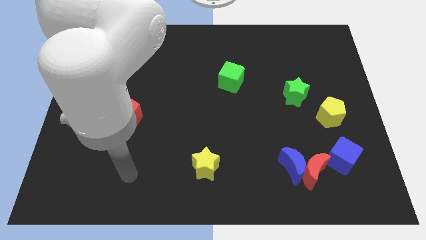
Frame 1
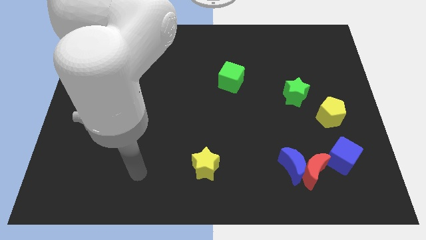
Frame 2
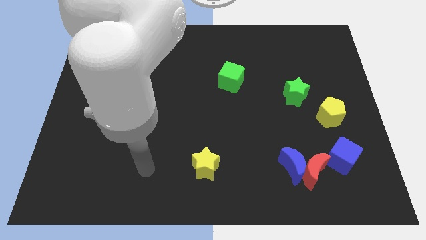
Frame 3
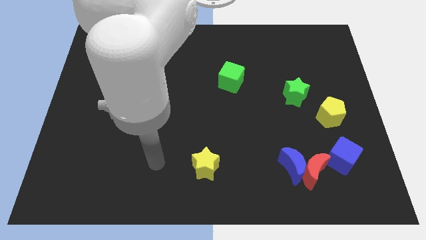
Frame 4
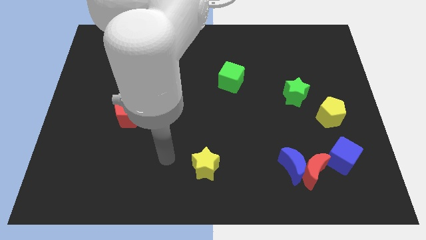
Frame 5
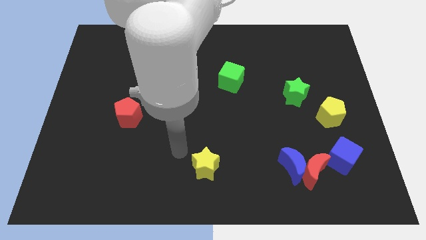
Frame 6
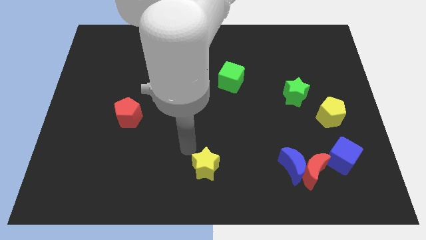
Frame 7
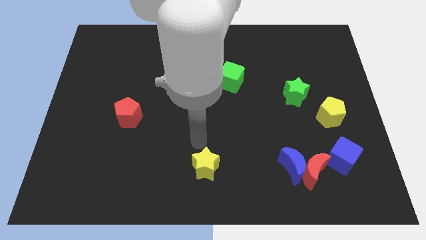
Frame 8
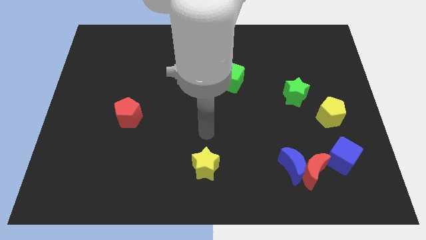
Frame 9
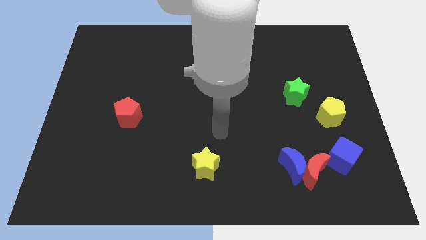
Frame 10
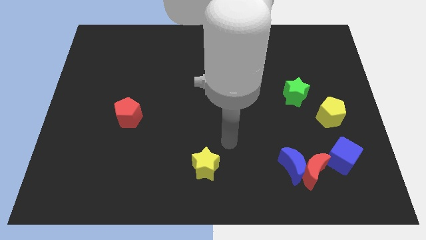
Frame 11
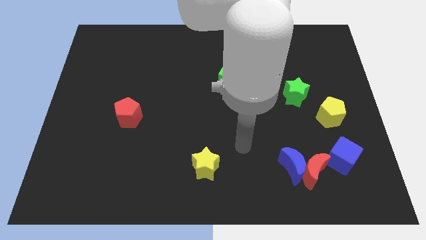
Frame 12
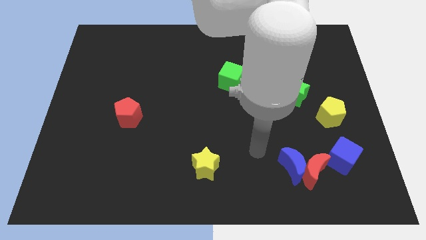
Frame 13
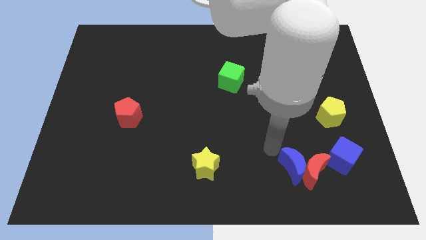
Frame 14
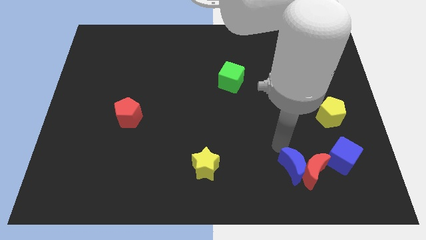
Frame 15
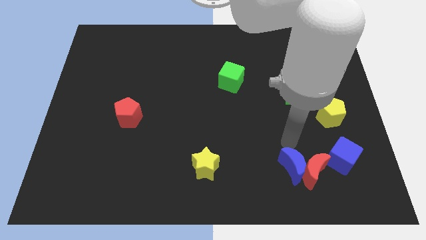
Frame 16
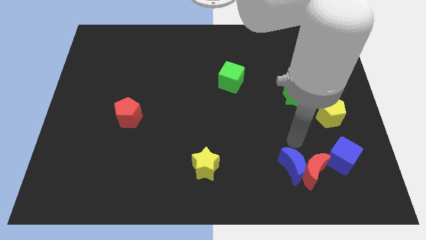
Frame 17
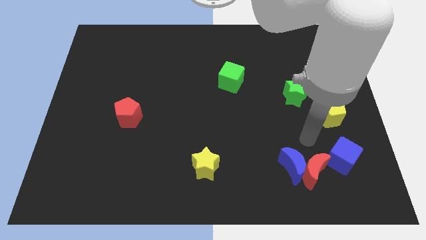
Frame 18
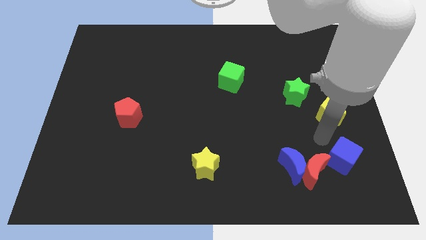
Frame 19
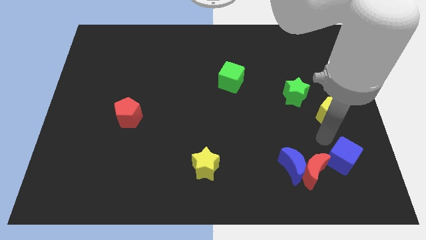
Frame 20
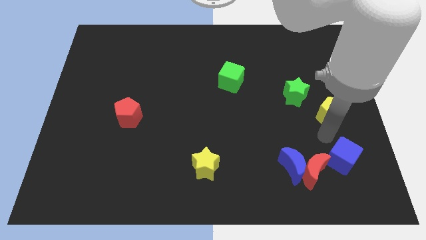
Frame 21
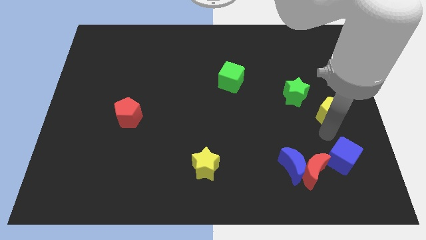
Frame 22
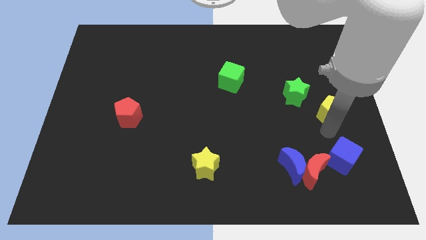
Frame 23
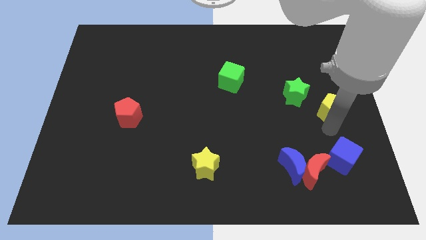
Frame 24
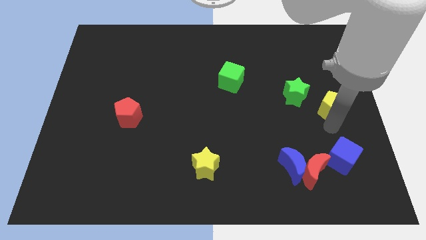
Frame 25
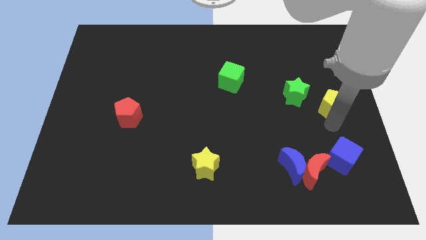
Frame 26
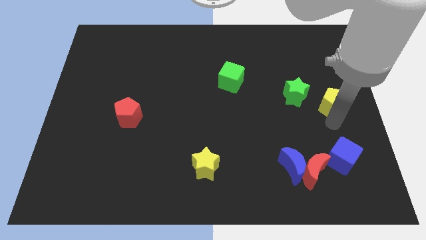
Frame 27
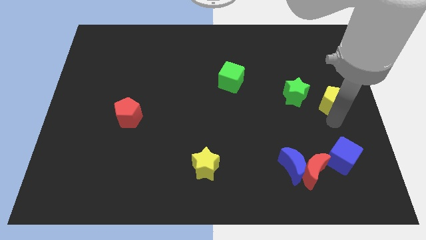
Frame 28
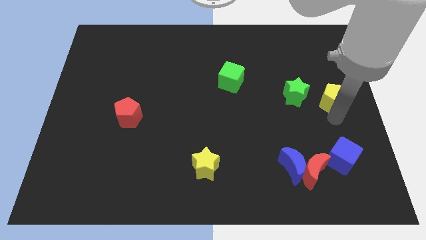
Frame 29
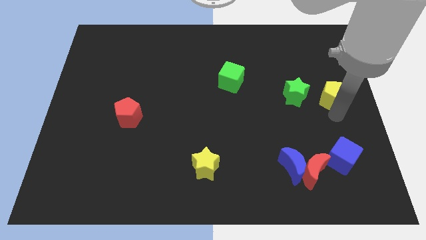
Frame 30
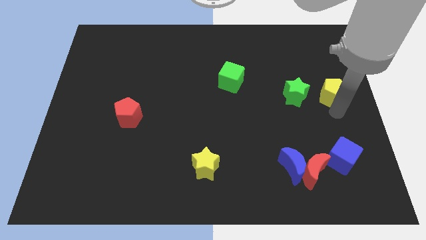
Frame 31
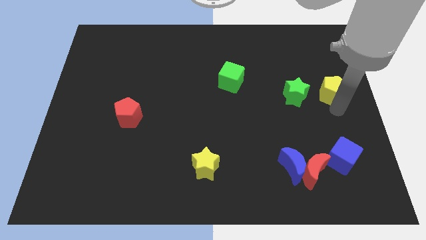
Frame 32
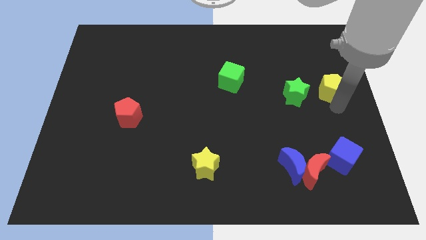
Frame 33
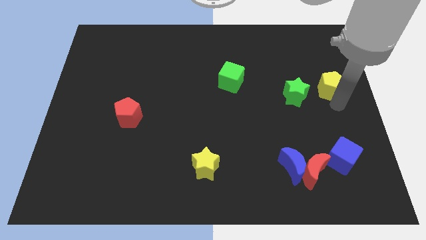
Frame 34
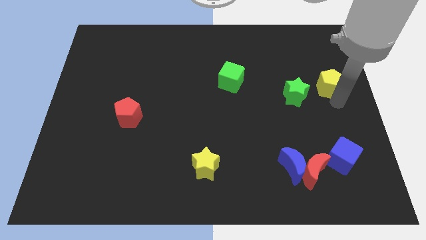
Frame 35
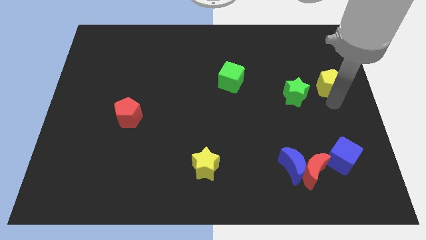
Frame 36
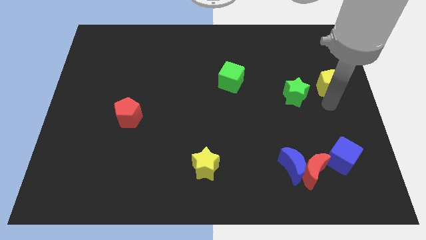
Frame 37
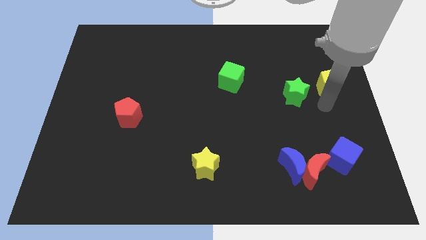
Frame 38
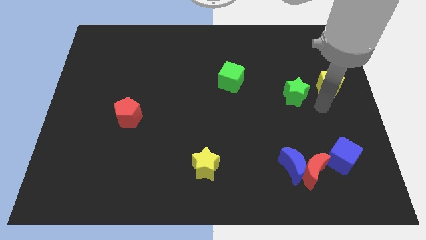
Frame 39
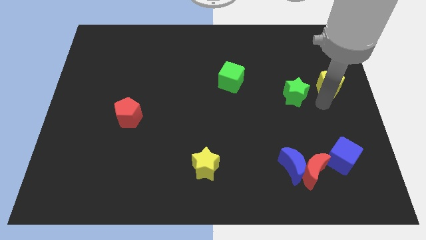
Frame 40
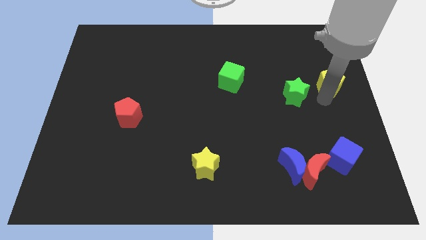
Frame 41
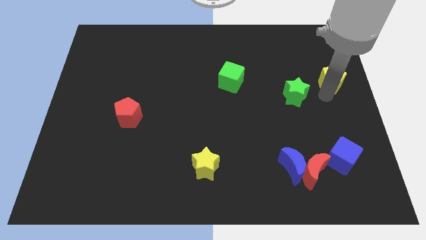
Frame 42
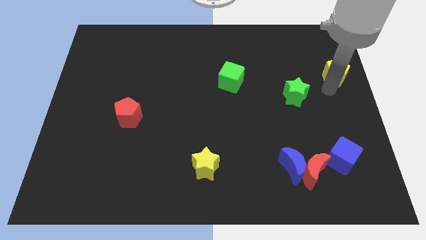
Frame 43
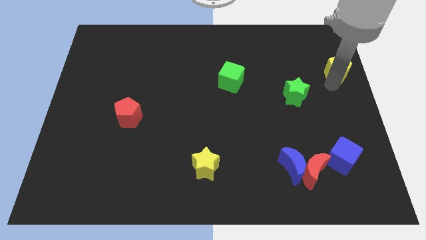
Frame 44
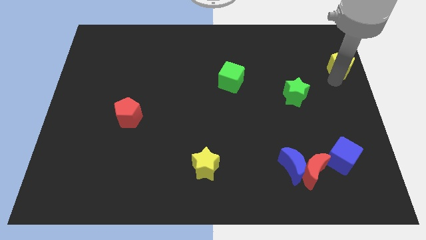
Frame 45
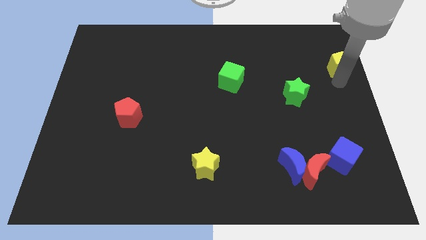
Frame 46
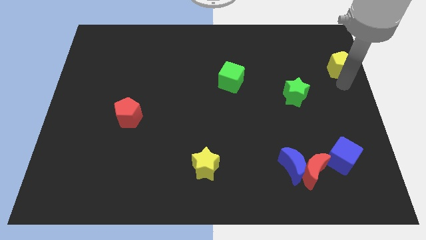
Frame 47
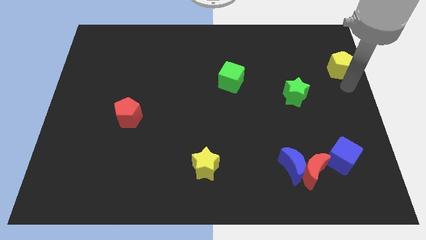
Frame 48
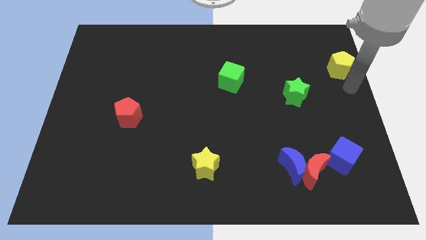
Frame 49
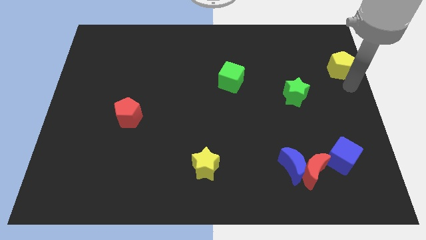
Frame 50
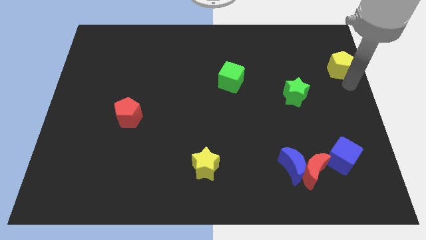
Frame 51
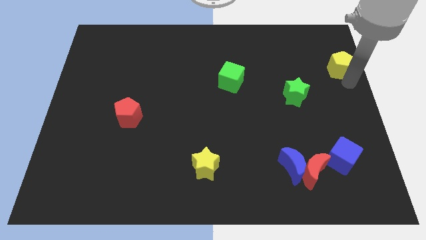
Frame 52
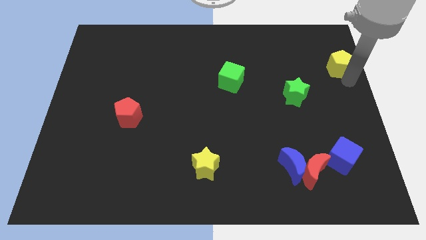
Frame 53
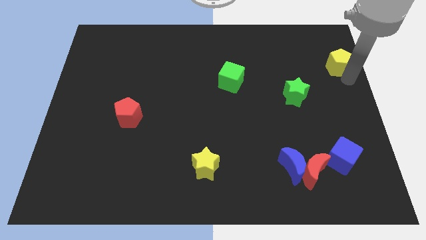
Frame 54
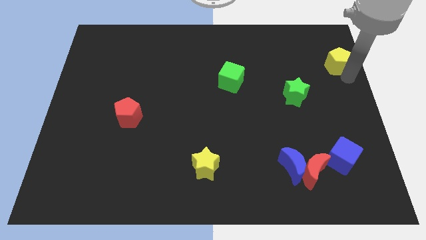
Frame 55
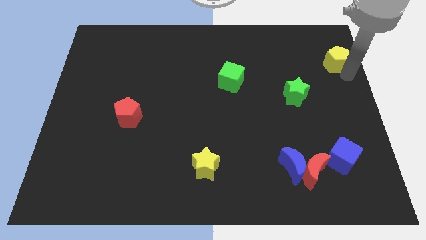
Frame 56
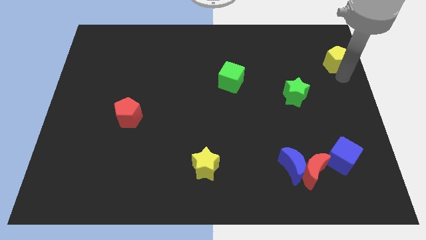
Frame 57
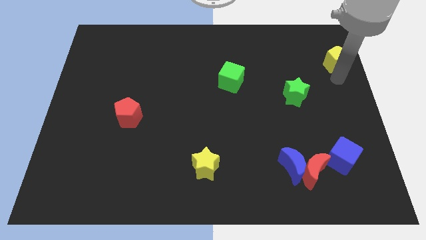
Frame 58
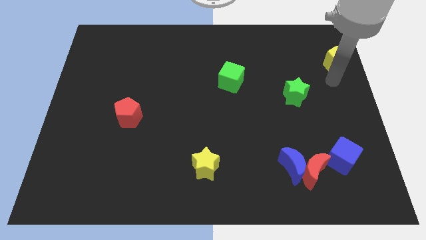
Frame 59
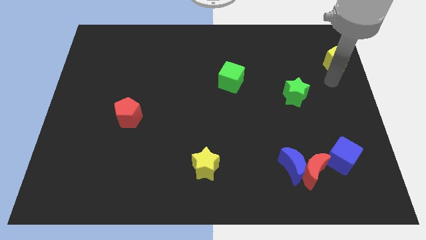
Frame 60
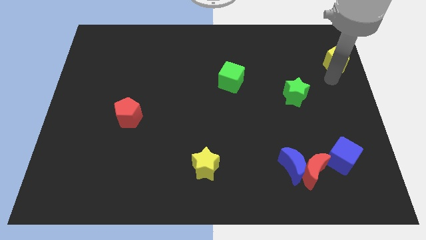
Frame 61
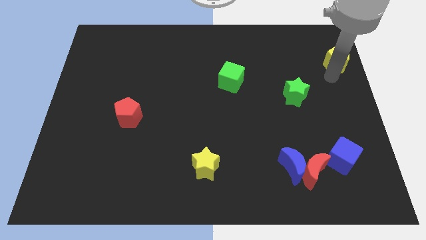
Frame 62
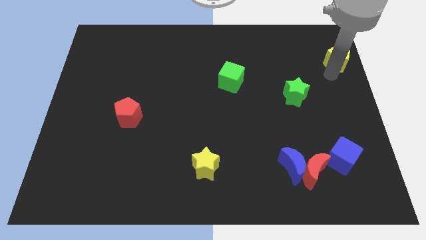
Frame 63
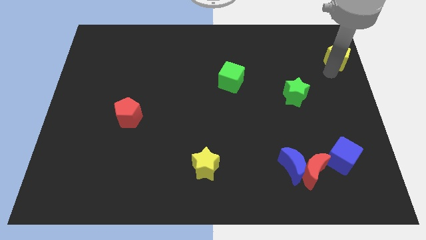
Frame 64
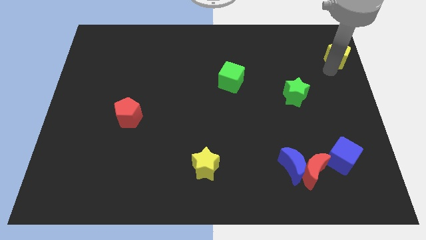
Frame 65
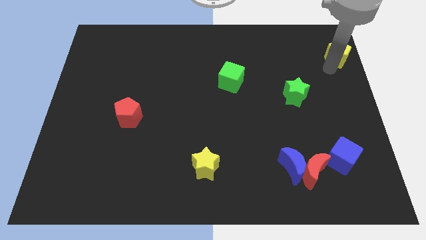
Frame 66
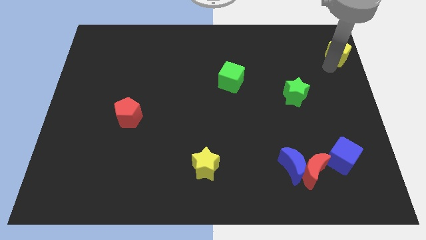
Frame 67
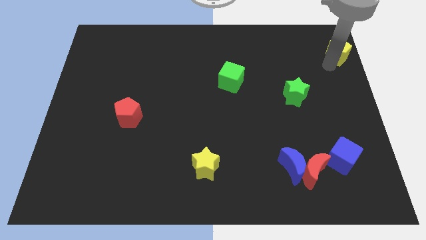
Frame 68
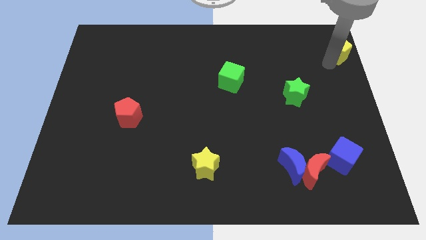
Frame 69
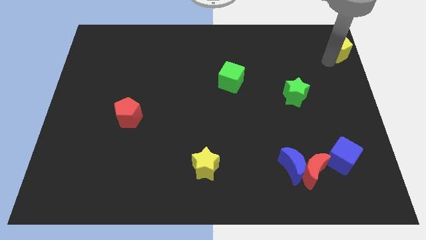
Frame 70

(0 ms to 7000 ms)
slide the yellow pentagon to the upper right corner
